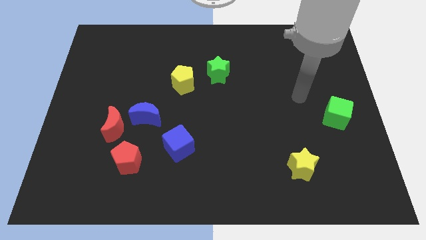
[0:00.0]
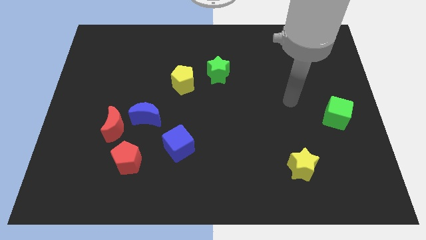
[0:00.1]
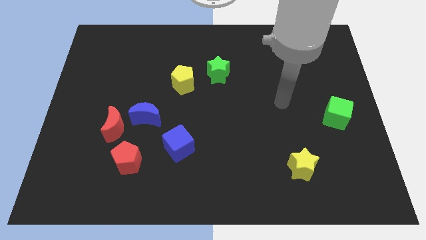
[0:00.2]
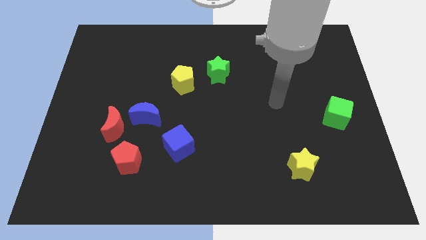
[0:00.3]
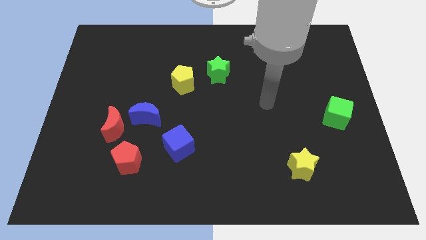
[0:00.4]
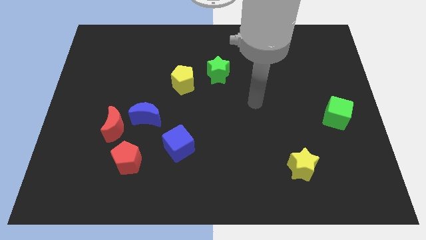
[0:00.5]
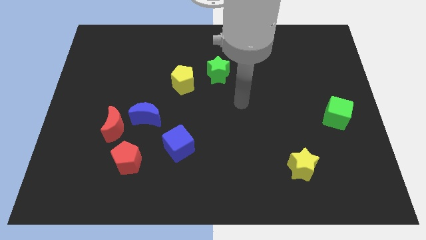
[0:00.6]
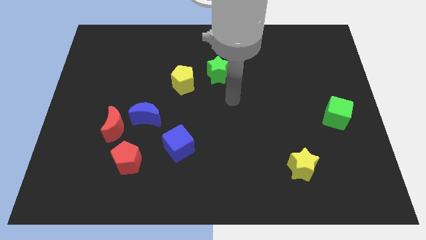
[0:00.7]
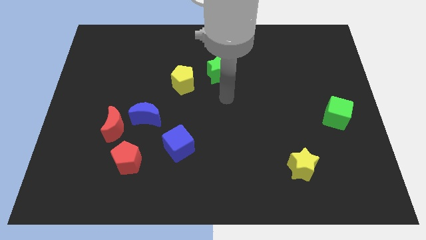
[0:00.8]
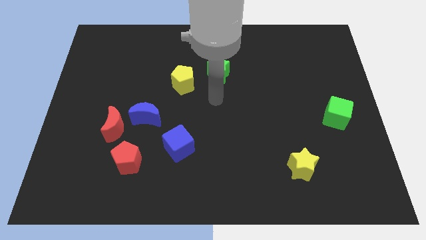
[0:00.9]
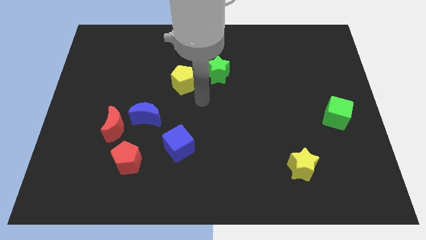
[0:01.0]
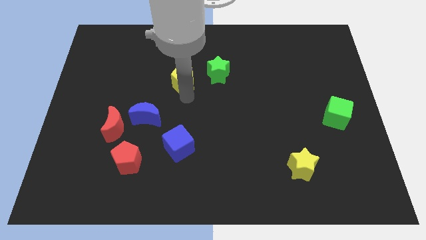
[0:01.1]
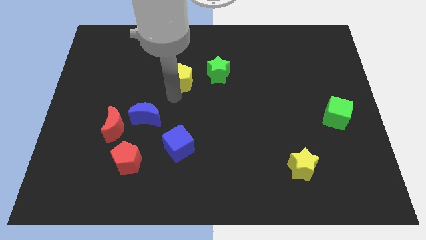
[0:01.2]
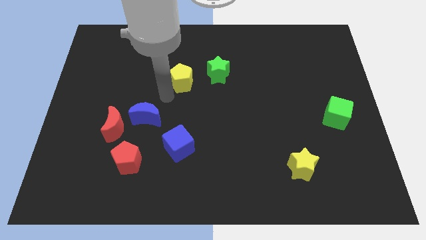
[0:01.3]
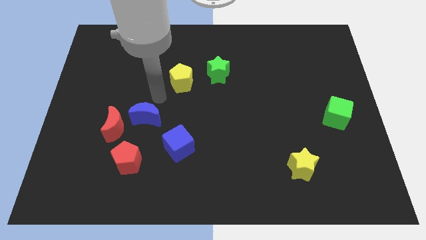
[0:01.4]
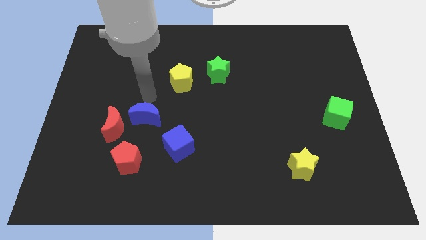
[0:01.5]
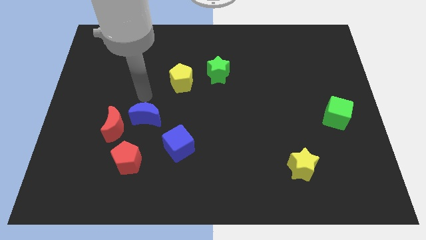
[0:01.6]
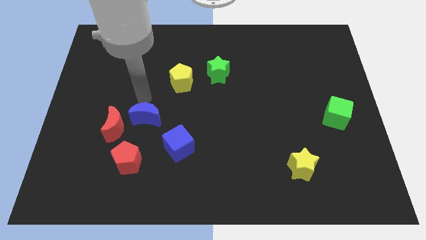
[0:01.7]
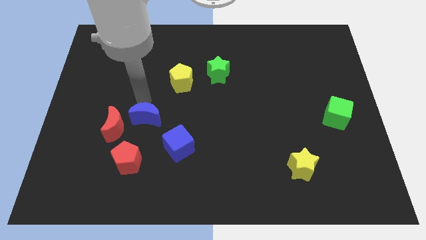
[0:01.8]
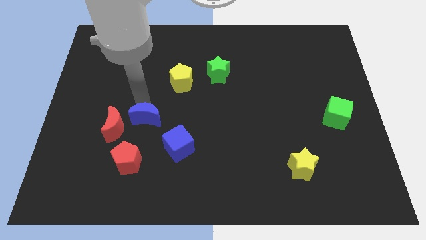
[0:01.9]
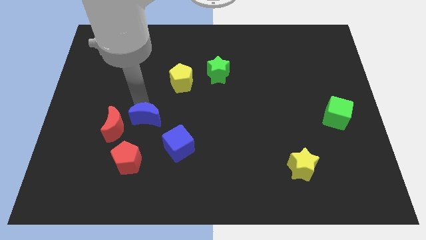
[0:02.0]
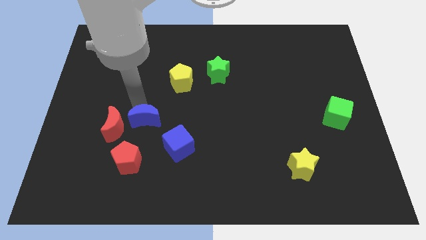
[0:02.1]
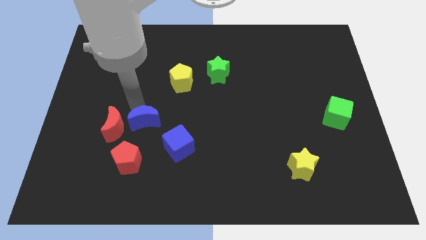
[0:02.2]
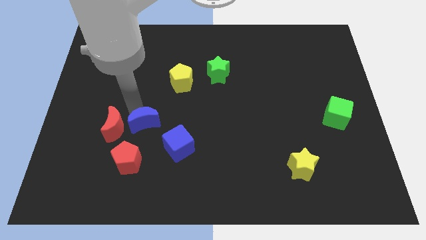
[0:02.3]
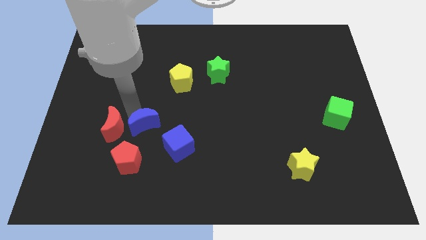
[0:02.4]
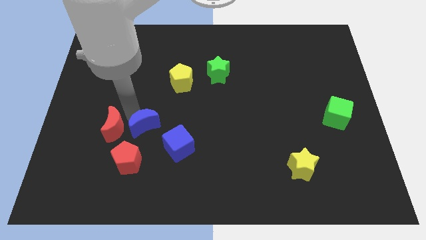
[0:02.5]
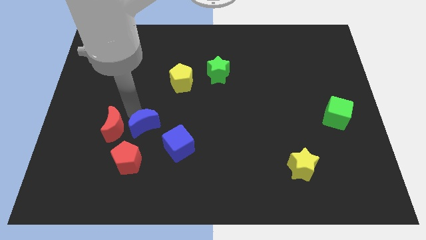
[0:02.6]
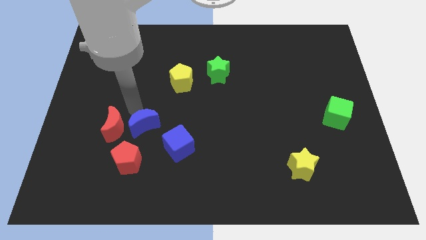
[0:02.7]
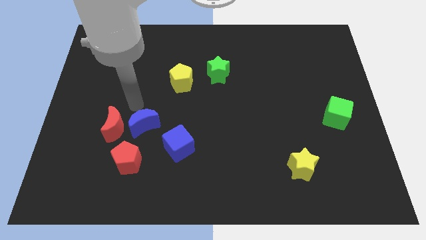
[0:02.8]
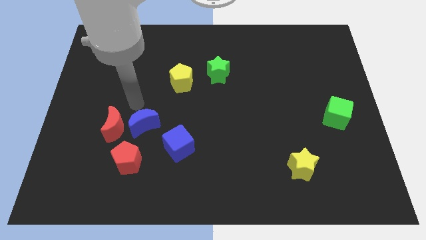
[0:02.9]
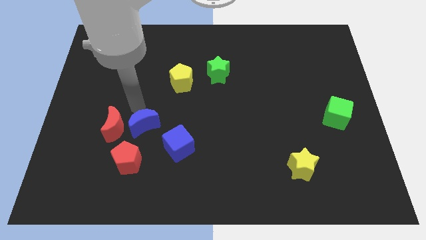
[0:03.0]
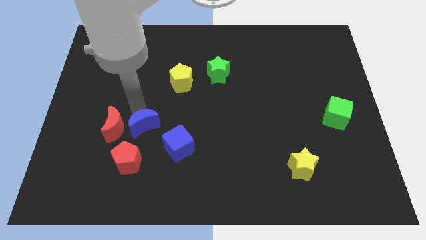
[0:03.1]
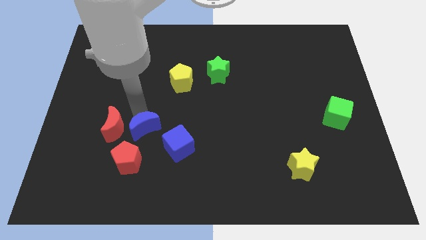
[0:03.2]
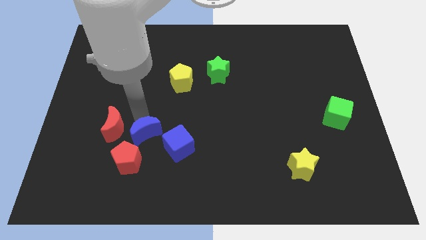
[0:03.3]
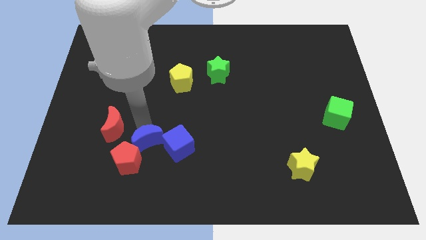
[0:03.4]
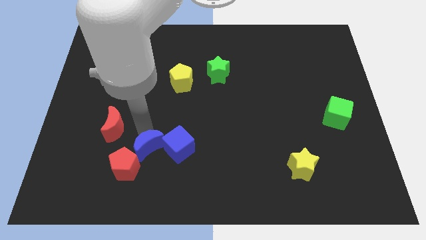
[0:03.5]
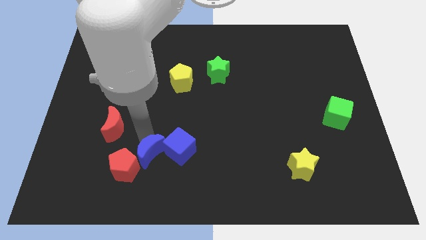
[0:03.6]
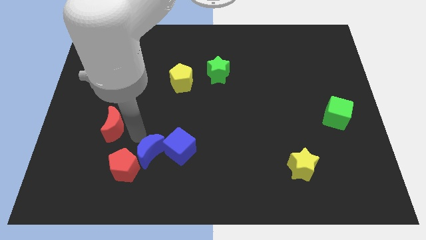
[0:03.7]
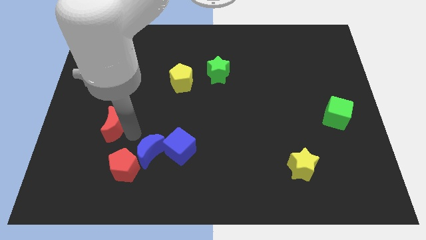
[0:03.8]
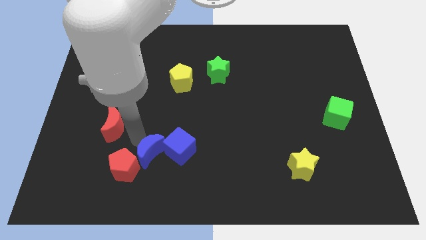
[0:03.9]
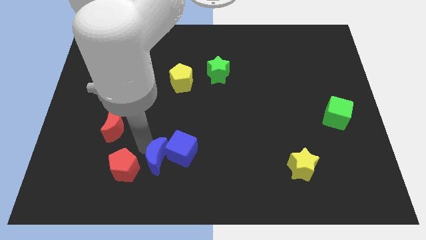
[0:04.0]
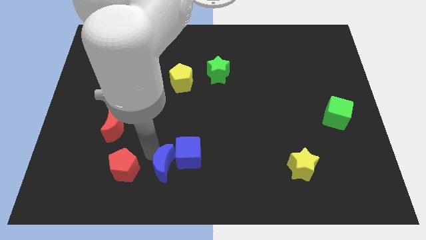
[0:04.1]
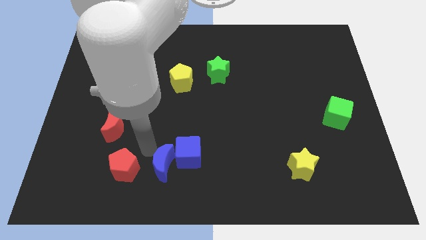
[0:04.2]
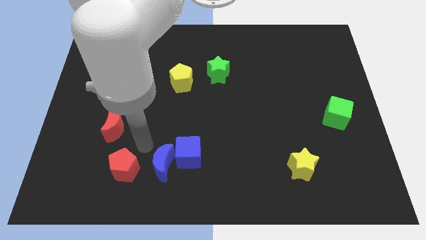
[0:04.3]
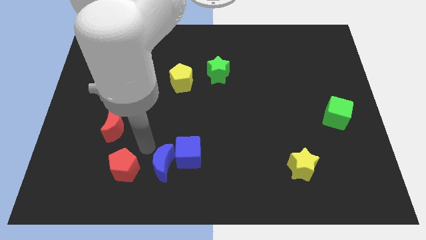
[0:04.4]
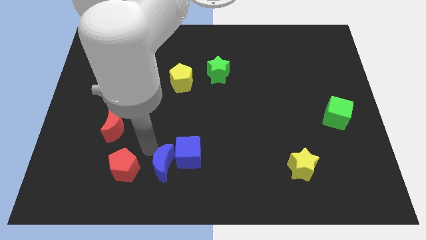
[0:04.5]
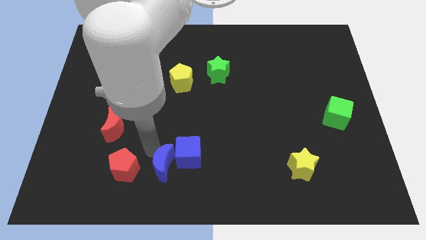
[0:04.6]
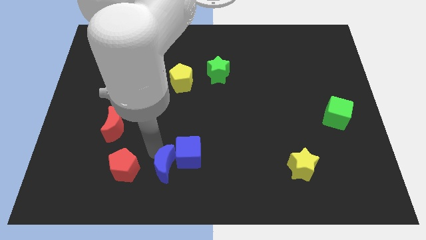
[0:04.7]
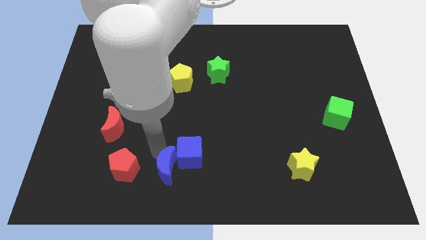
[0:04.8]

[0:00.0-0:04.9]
put the blue moon to the bottom

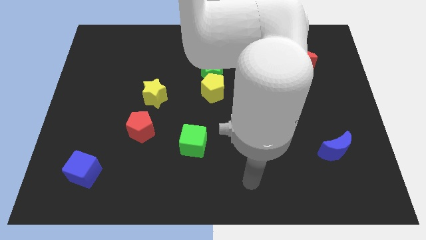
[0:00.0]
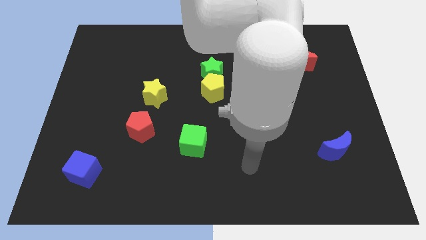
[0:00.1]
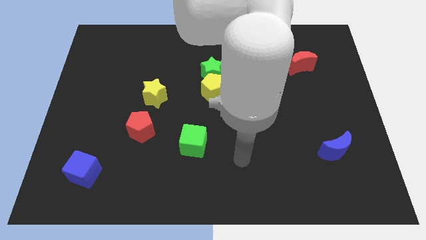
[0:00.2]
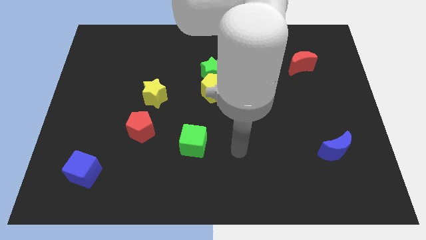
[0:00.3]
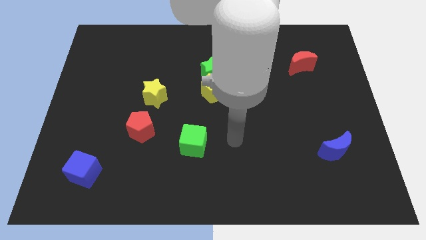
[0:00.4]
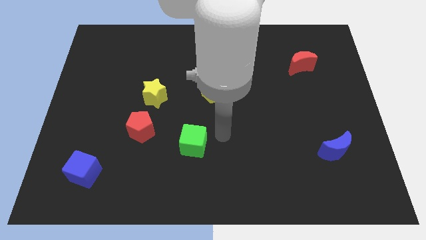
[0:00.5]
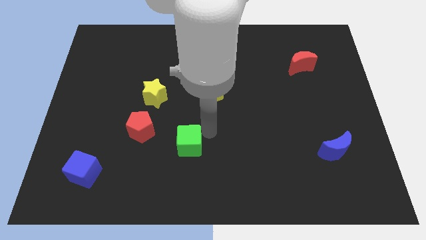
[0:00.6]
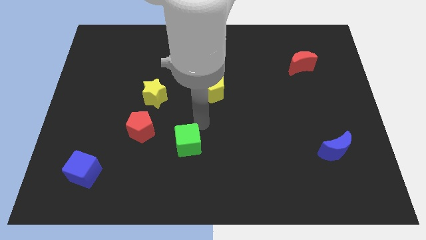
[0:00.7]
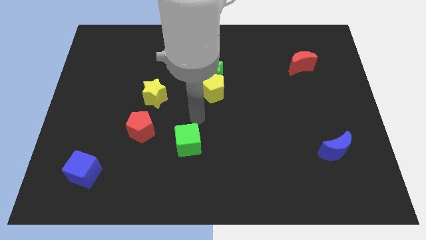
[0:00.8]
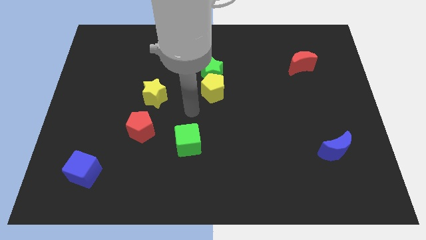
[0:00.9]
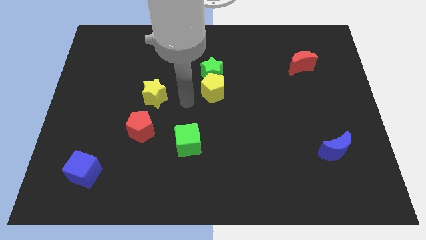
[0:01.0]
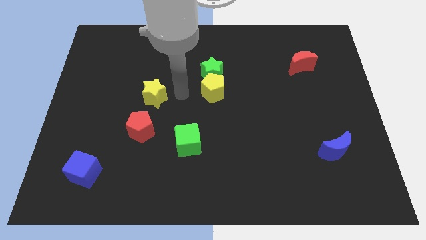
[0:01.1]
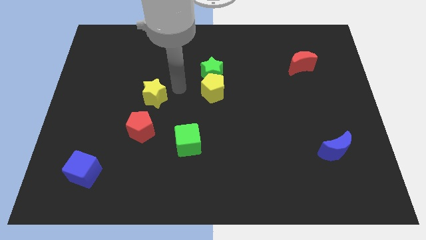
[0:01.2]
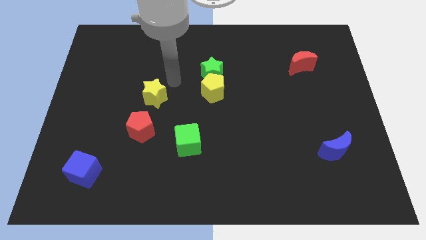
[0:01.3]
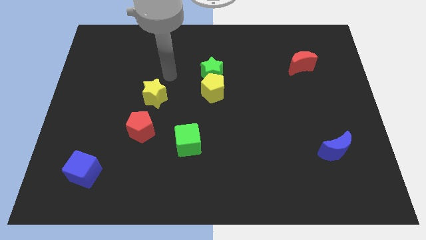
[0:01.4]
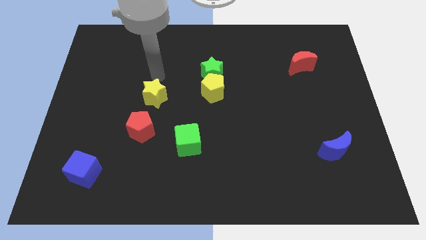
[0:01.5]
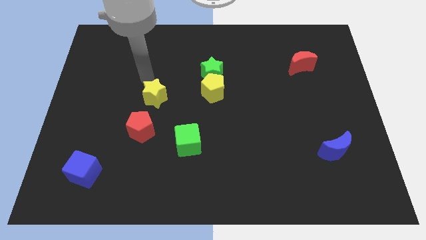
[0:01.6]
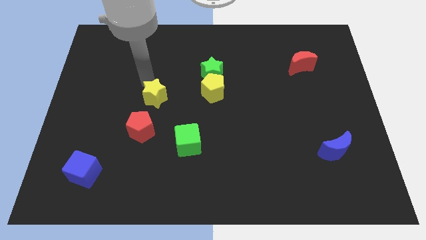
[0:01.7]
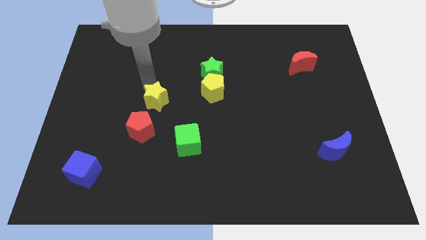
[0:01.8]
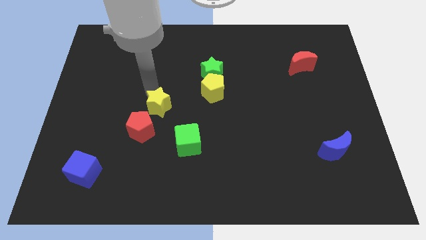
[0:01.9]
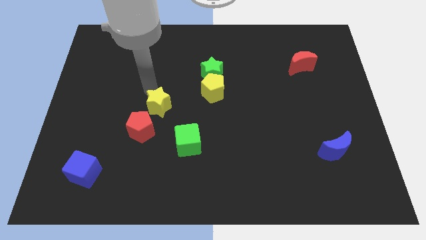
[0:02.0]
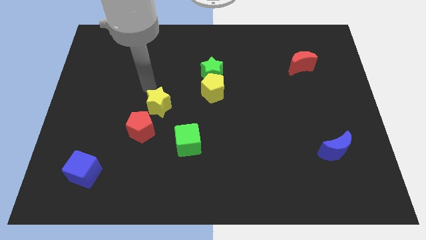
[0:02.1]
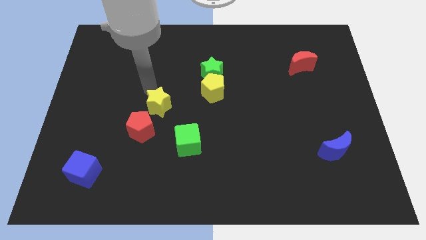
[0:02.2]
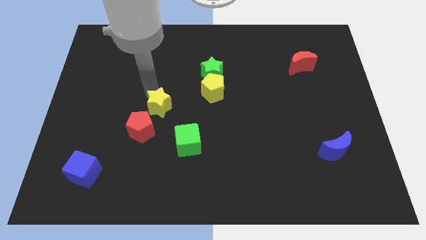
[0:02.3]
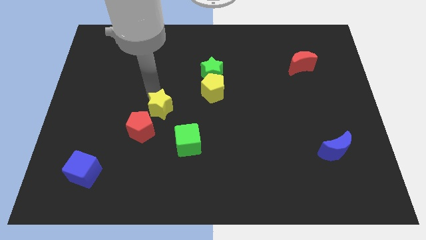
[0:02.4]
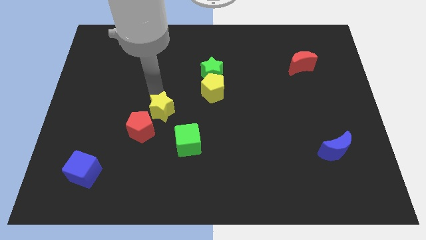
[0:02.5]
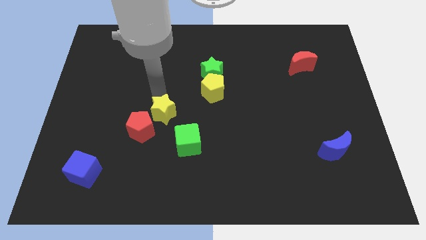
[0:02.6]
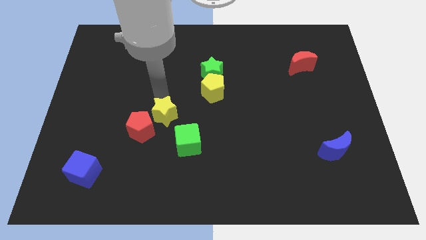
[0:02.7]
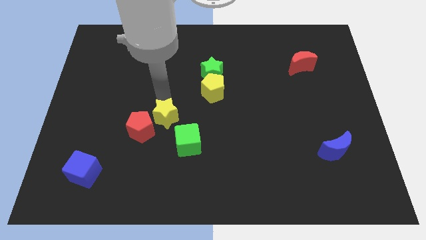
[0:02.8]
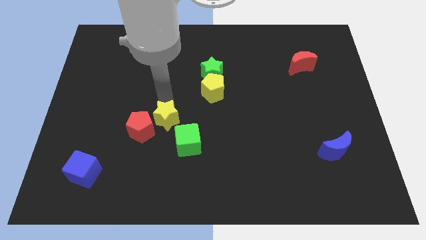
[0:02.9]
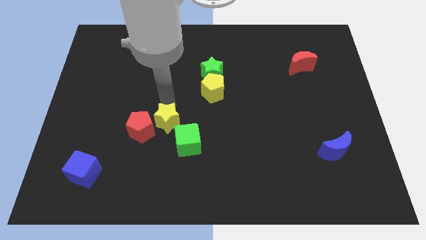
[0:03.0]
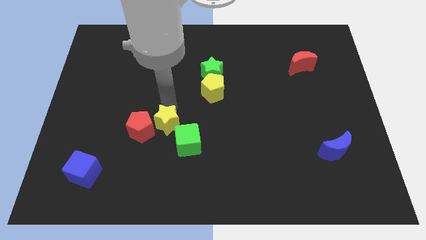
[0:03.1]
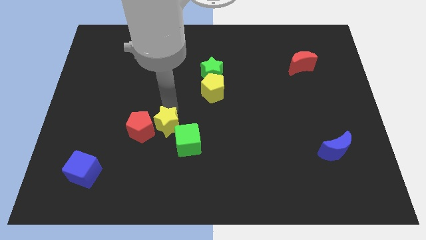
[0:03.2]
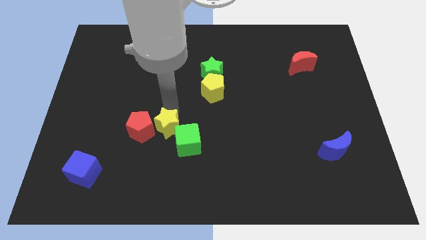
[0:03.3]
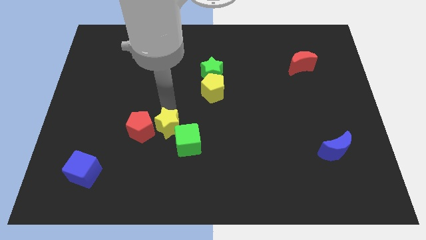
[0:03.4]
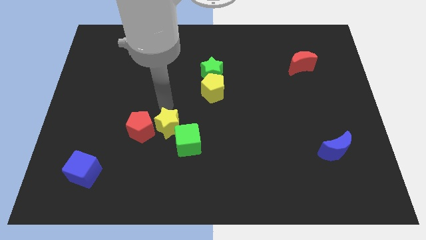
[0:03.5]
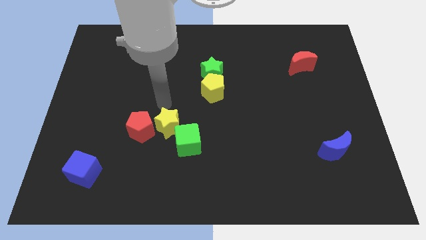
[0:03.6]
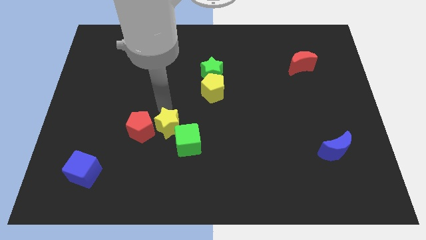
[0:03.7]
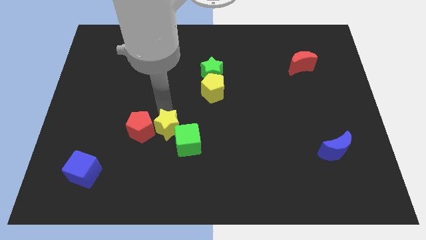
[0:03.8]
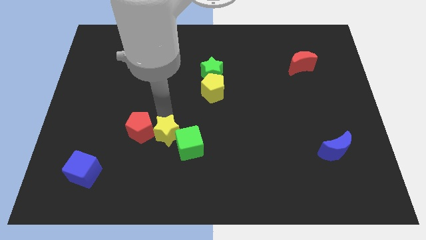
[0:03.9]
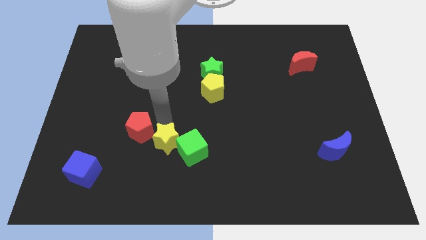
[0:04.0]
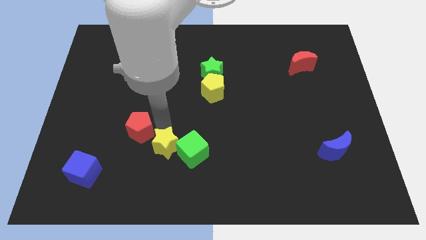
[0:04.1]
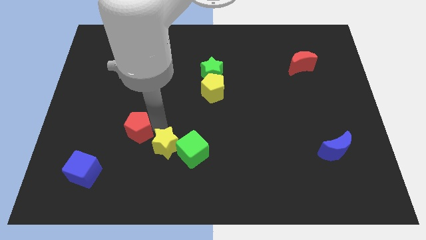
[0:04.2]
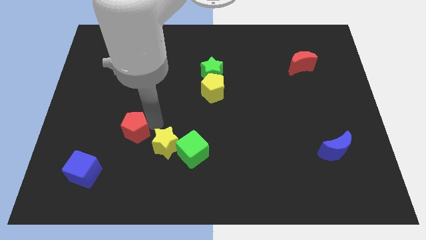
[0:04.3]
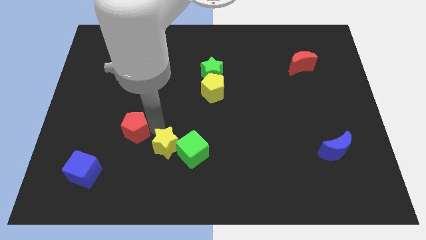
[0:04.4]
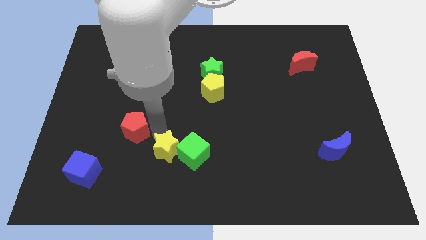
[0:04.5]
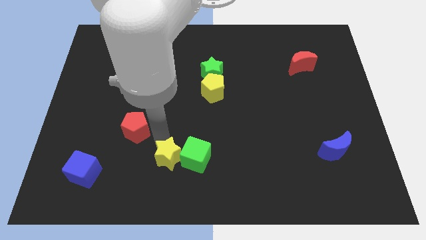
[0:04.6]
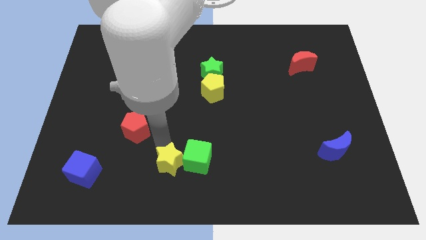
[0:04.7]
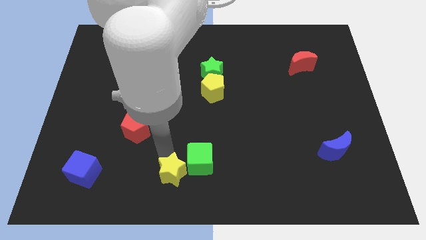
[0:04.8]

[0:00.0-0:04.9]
slide the yellow star to the bottom
